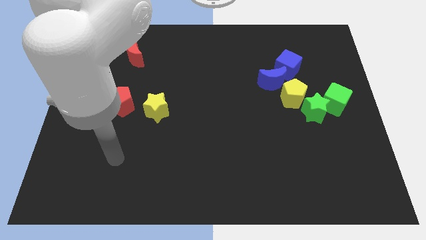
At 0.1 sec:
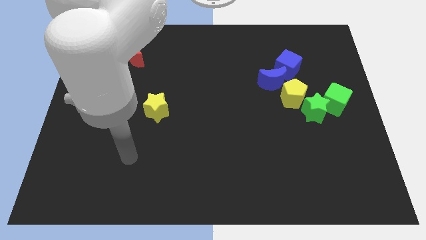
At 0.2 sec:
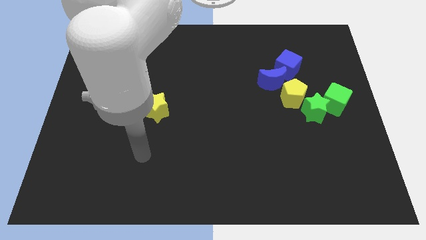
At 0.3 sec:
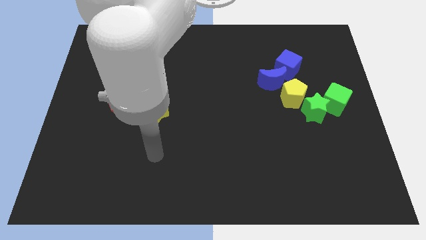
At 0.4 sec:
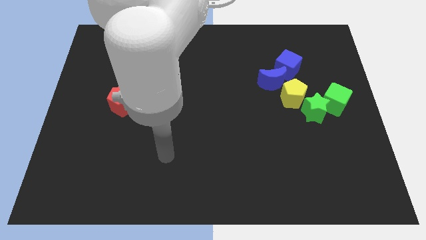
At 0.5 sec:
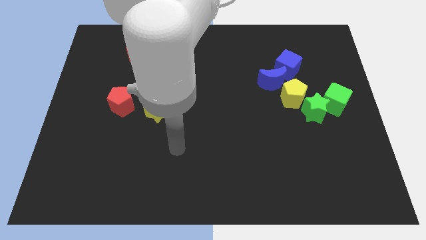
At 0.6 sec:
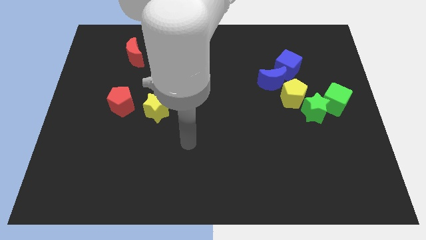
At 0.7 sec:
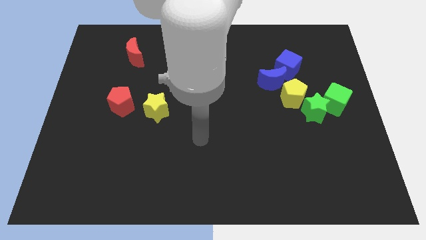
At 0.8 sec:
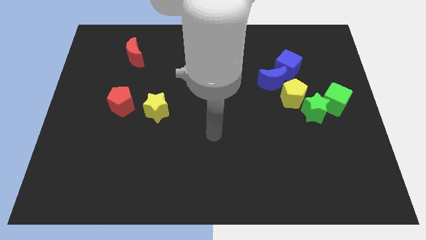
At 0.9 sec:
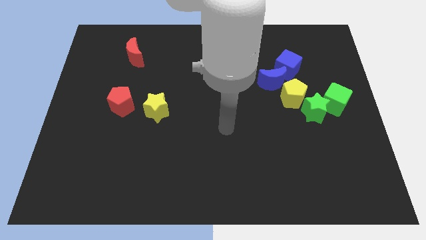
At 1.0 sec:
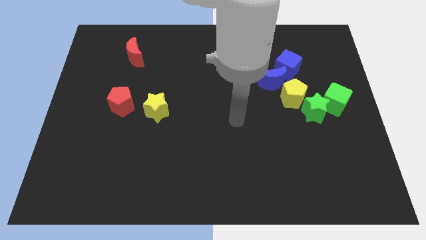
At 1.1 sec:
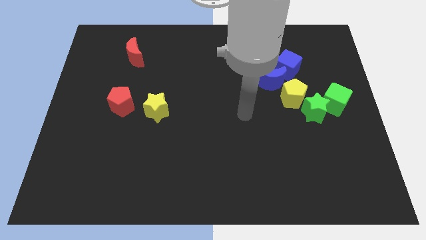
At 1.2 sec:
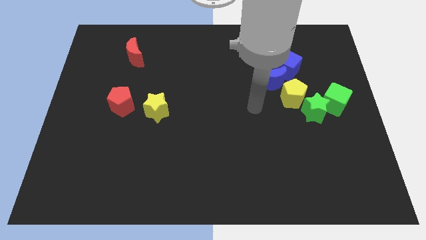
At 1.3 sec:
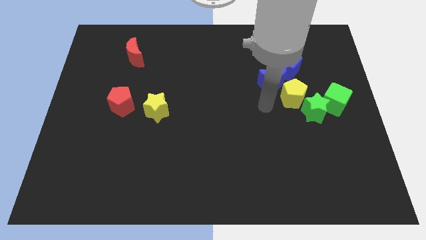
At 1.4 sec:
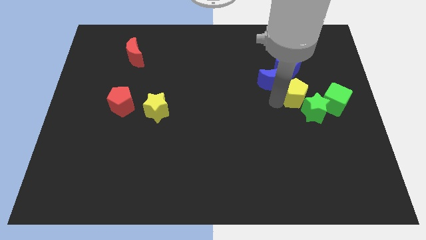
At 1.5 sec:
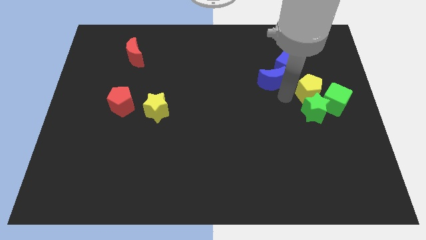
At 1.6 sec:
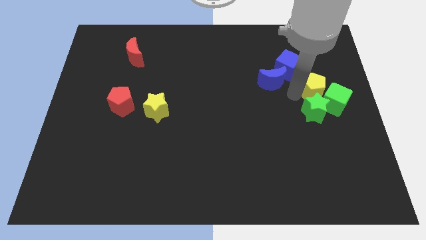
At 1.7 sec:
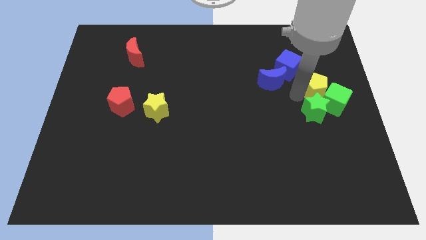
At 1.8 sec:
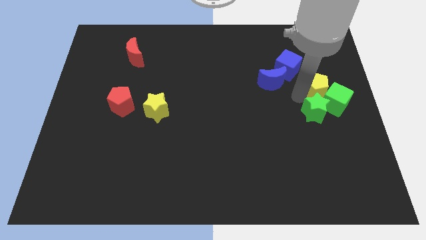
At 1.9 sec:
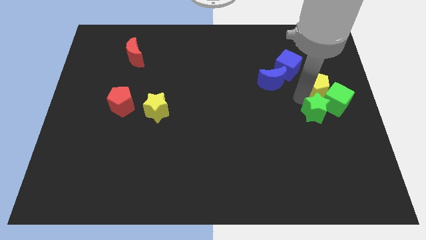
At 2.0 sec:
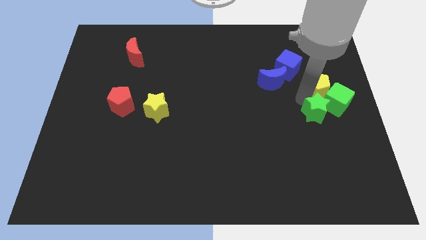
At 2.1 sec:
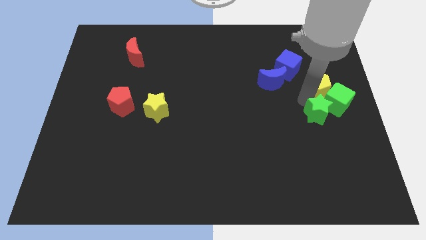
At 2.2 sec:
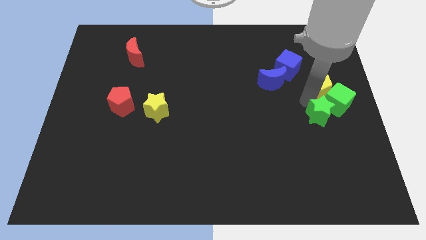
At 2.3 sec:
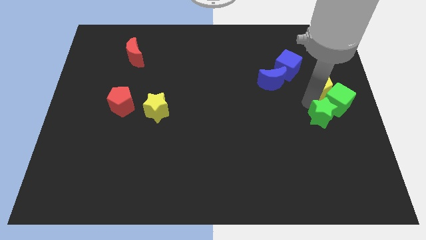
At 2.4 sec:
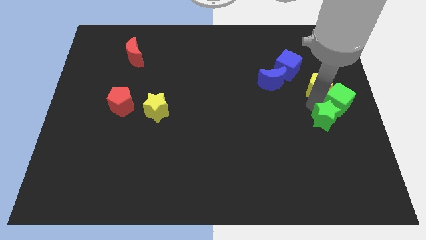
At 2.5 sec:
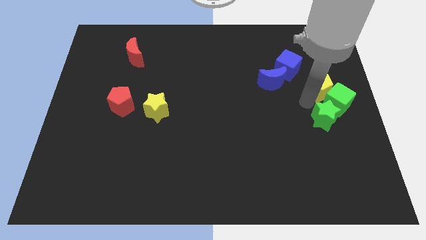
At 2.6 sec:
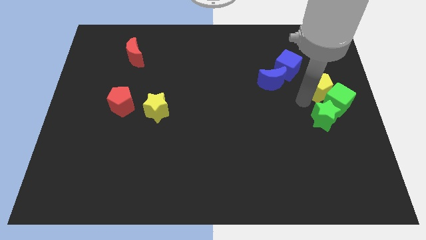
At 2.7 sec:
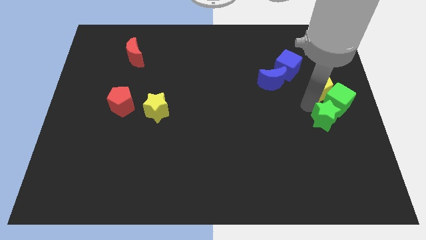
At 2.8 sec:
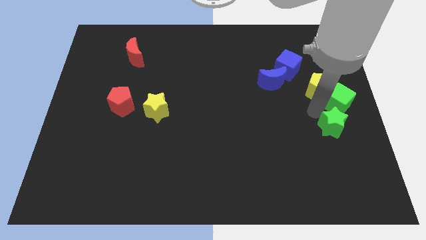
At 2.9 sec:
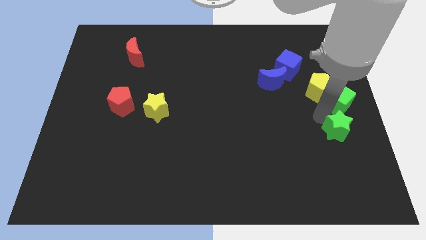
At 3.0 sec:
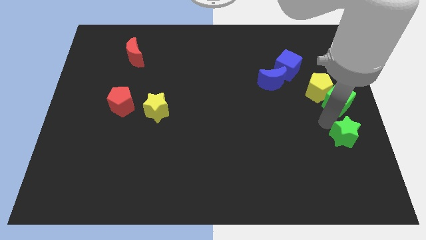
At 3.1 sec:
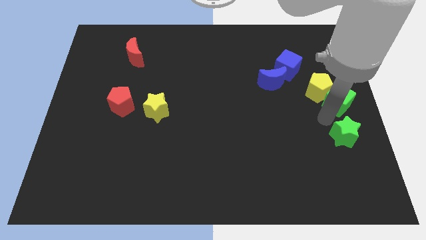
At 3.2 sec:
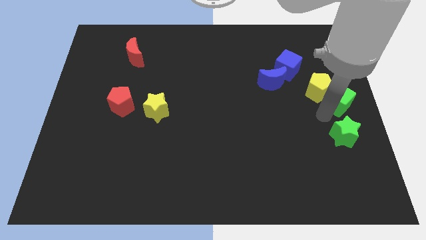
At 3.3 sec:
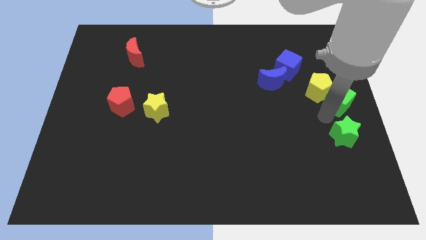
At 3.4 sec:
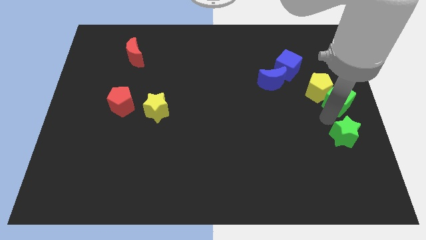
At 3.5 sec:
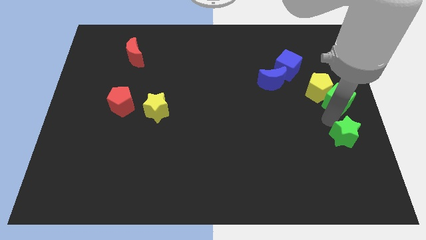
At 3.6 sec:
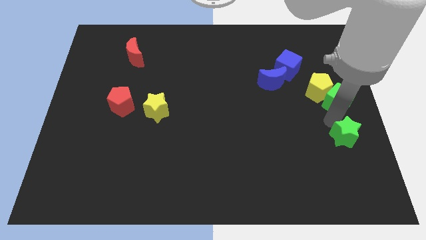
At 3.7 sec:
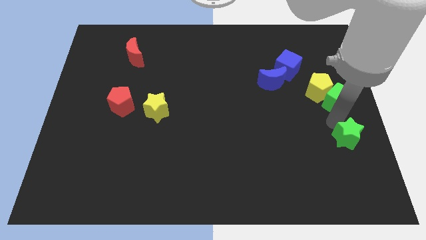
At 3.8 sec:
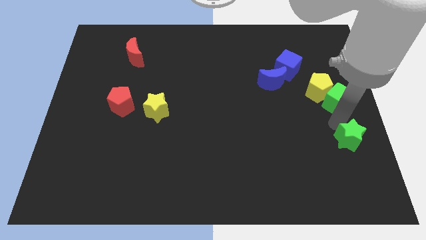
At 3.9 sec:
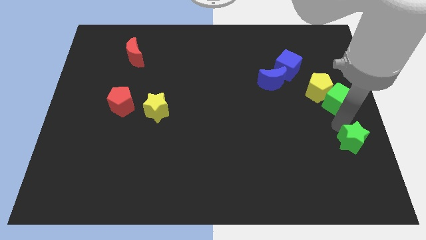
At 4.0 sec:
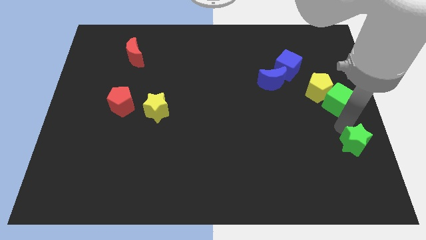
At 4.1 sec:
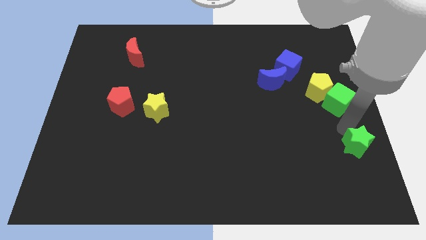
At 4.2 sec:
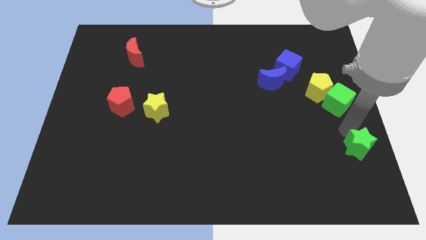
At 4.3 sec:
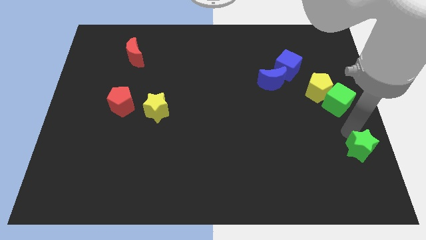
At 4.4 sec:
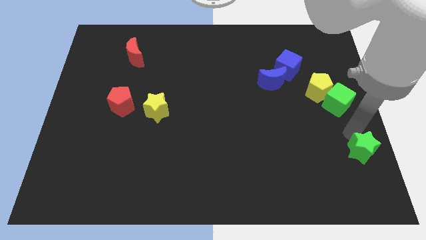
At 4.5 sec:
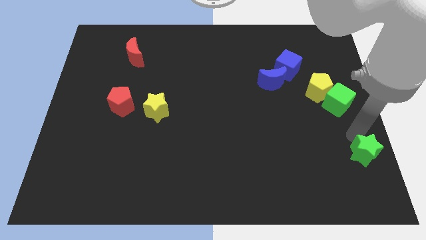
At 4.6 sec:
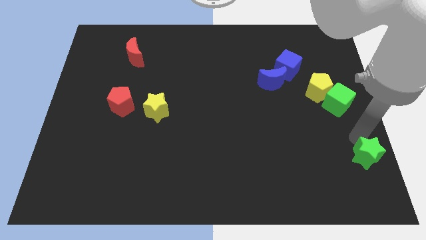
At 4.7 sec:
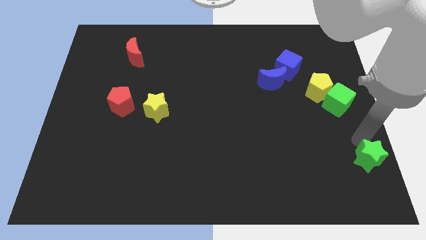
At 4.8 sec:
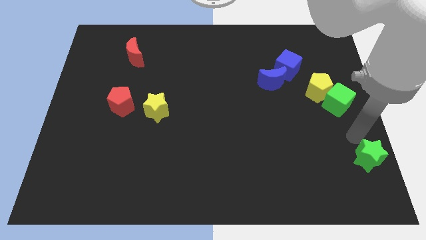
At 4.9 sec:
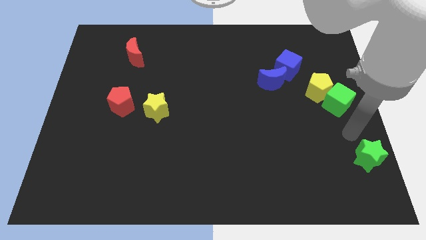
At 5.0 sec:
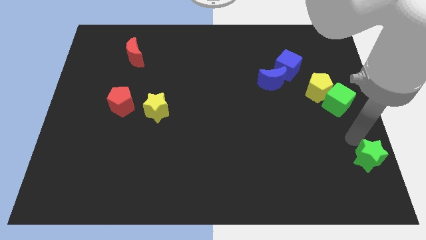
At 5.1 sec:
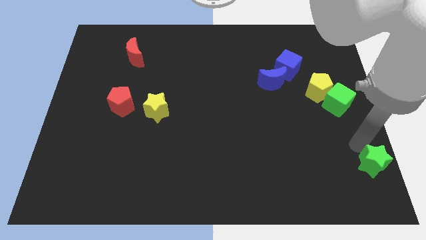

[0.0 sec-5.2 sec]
slide the green star to the bottom right of the board

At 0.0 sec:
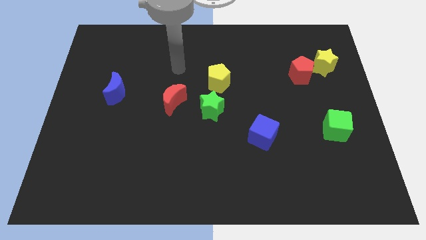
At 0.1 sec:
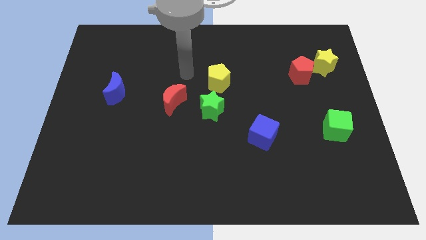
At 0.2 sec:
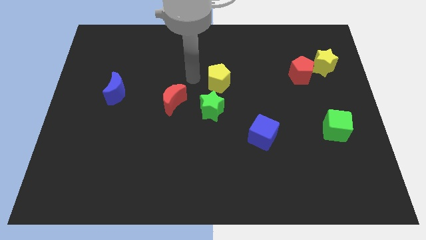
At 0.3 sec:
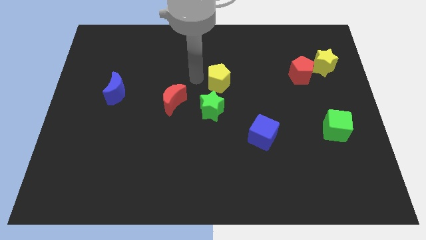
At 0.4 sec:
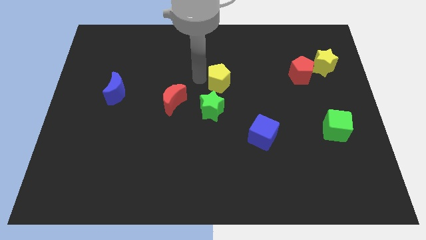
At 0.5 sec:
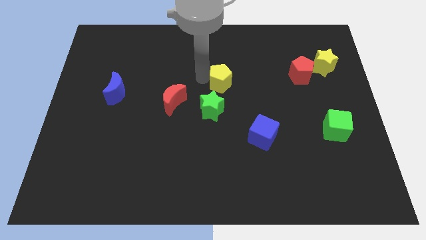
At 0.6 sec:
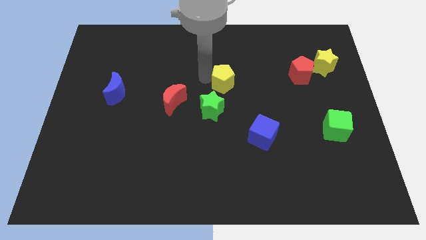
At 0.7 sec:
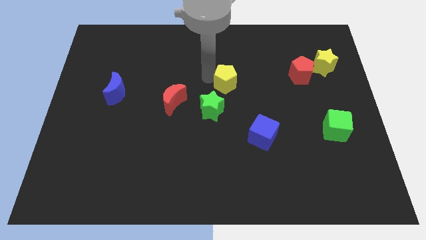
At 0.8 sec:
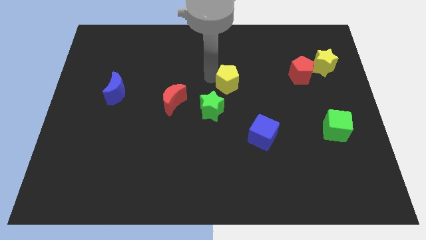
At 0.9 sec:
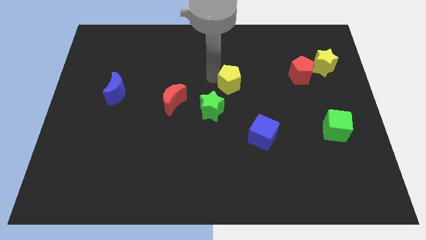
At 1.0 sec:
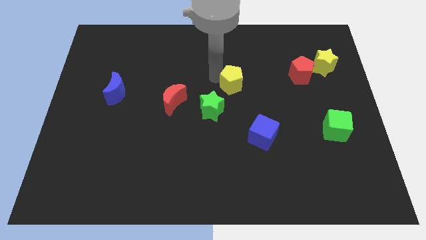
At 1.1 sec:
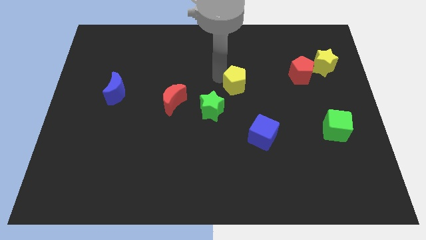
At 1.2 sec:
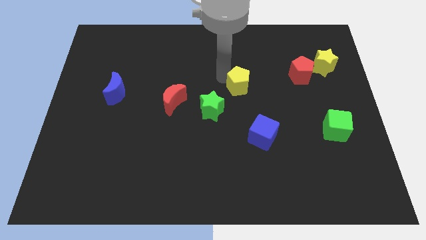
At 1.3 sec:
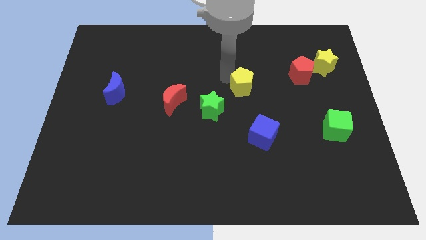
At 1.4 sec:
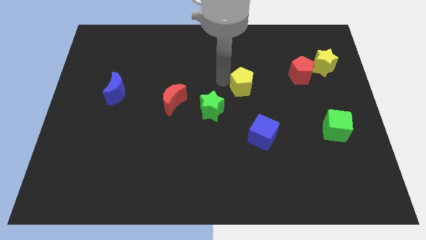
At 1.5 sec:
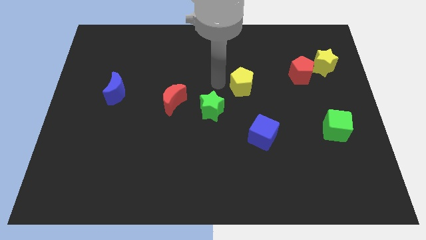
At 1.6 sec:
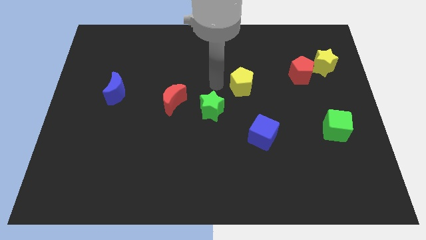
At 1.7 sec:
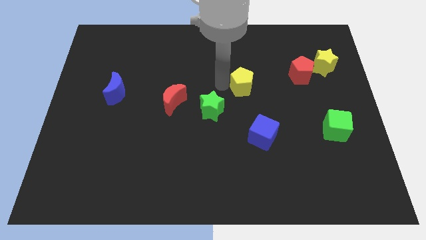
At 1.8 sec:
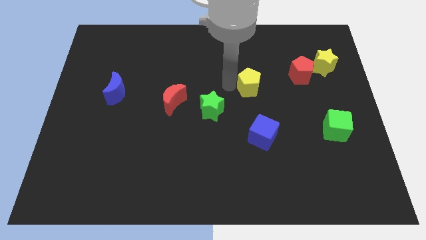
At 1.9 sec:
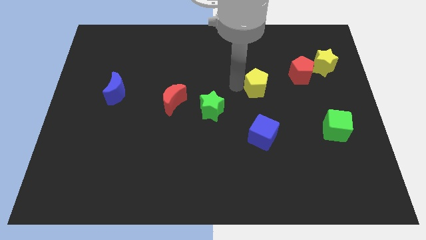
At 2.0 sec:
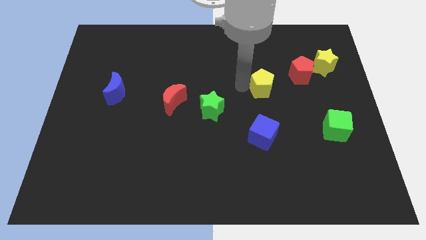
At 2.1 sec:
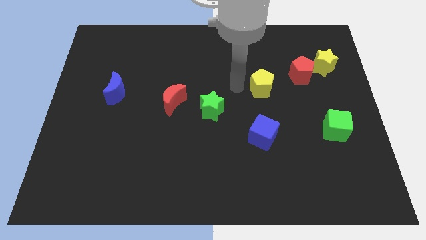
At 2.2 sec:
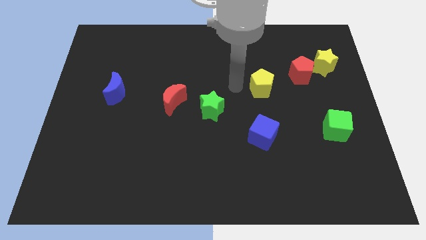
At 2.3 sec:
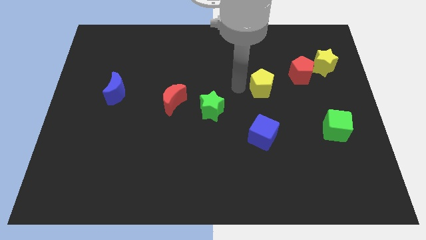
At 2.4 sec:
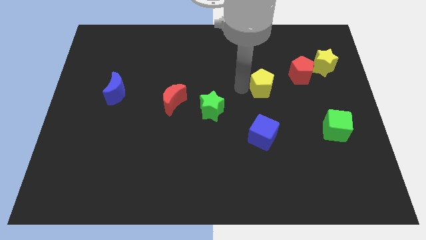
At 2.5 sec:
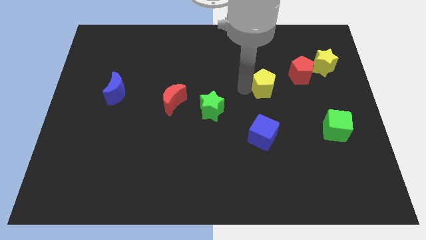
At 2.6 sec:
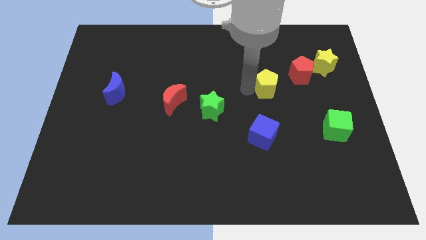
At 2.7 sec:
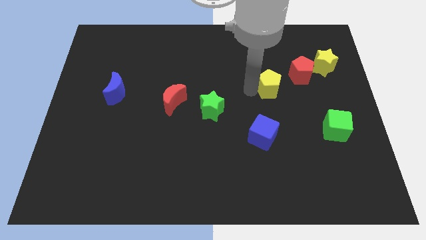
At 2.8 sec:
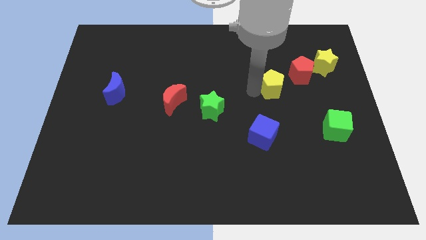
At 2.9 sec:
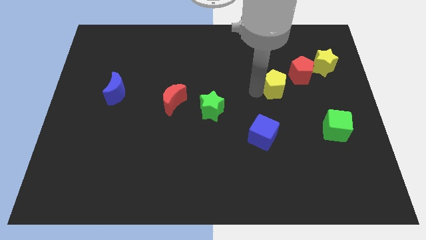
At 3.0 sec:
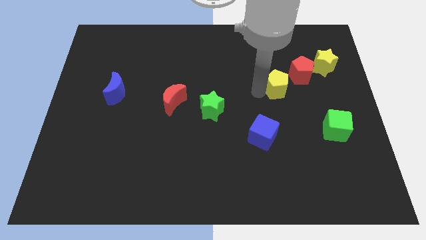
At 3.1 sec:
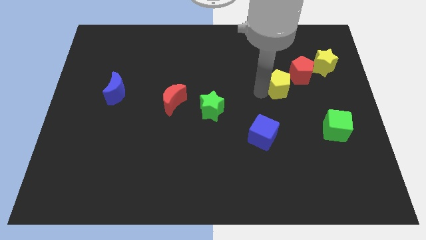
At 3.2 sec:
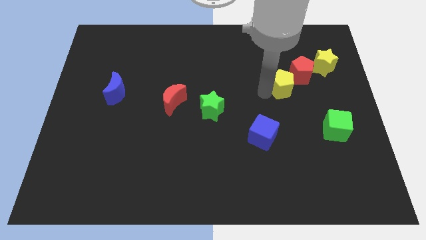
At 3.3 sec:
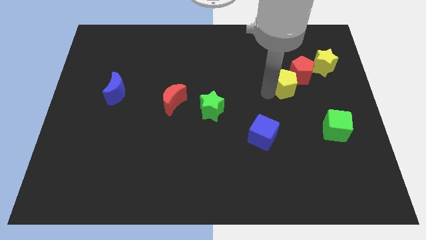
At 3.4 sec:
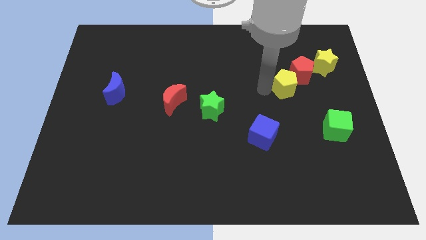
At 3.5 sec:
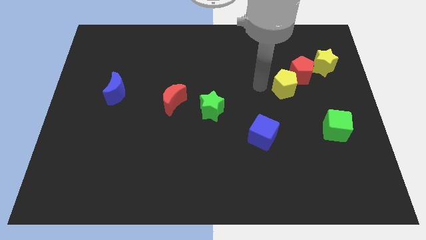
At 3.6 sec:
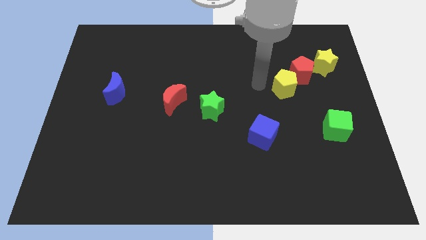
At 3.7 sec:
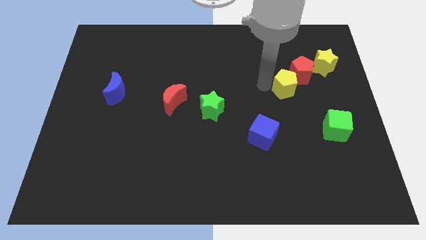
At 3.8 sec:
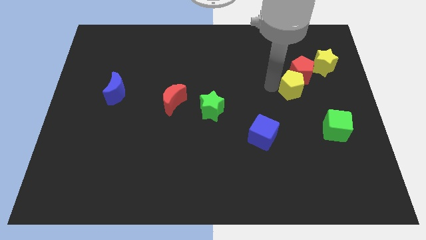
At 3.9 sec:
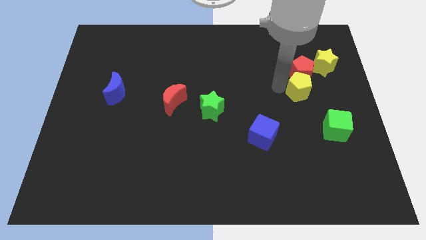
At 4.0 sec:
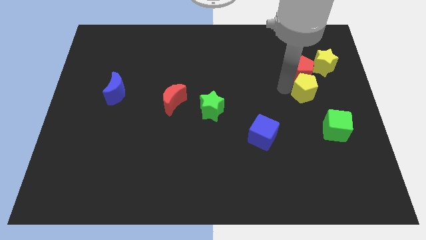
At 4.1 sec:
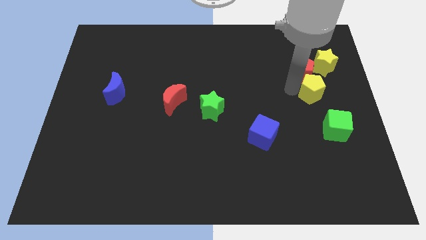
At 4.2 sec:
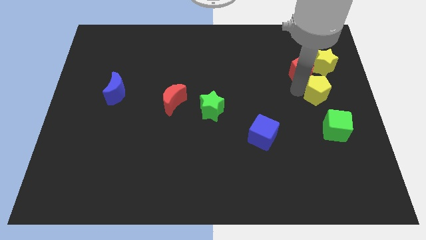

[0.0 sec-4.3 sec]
move the yellow pentagon to the center right
